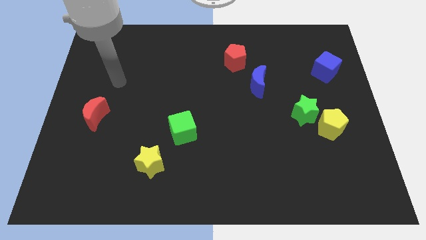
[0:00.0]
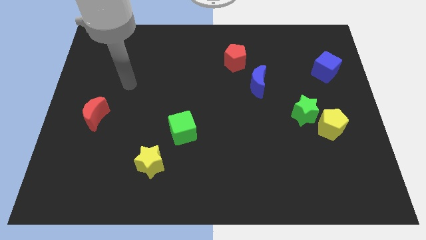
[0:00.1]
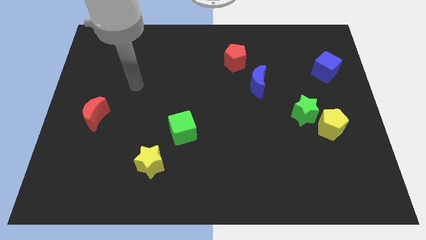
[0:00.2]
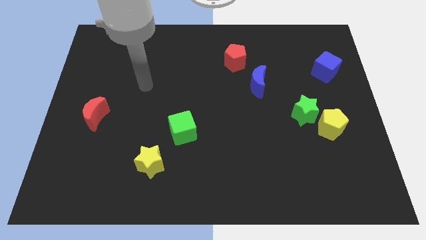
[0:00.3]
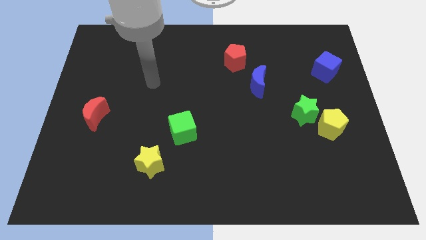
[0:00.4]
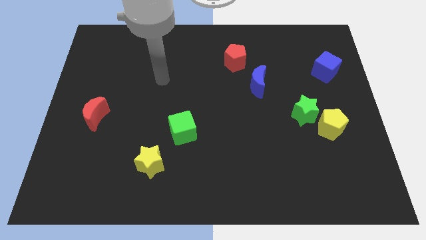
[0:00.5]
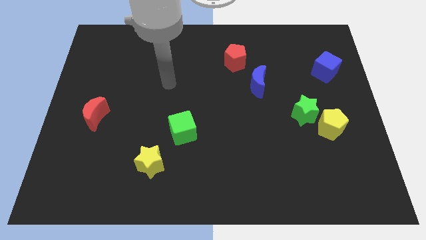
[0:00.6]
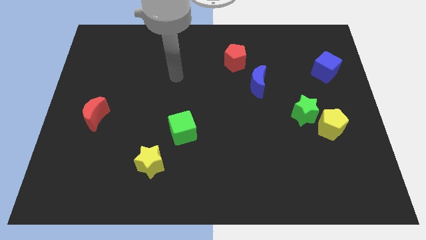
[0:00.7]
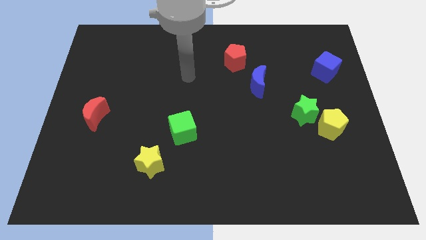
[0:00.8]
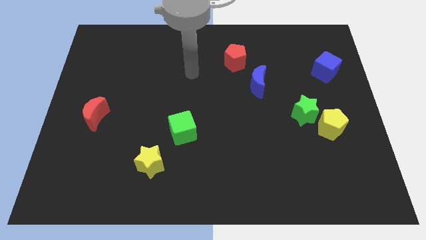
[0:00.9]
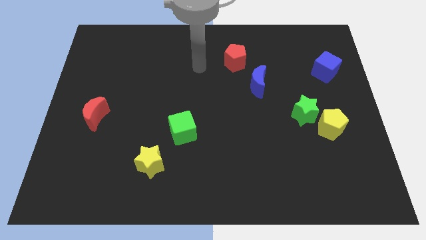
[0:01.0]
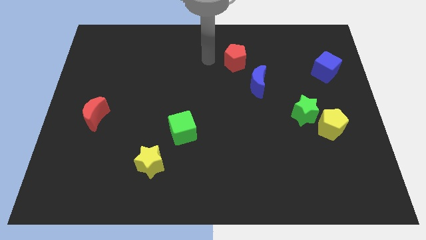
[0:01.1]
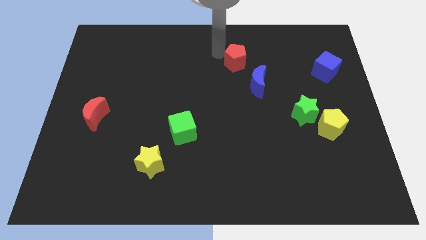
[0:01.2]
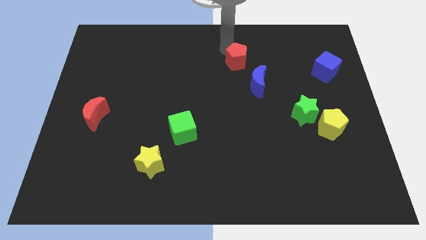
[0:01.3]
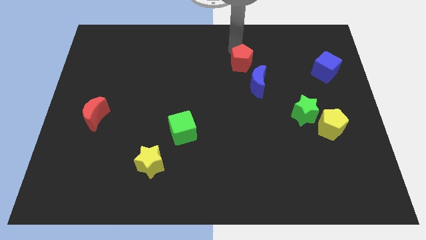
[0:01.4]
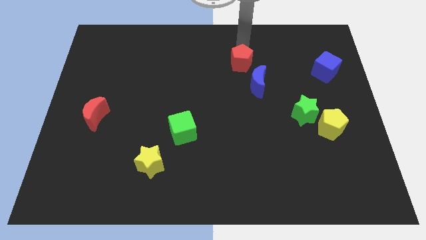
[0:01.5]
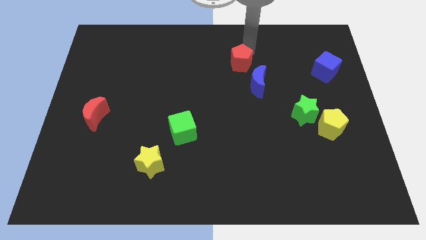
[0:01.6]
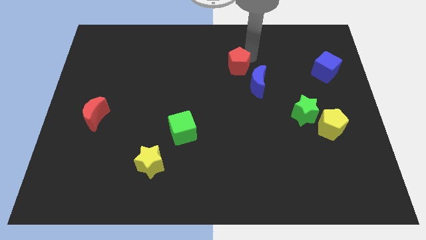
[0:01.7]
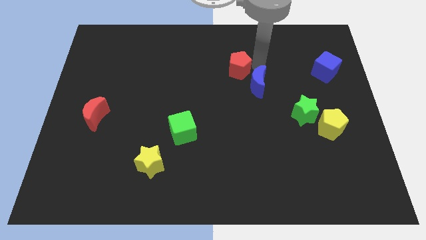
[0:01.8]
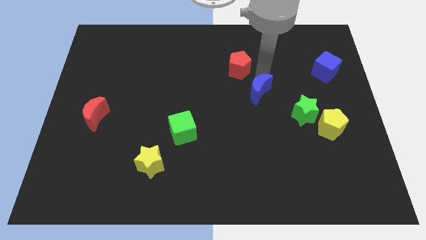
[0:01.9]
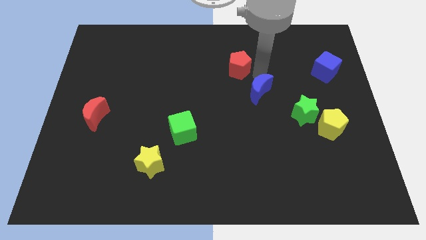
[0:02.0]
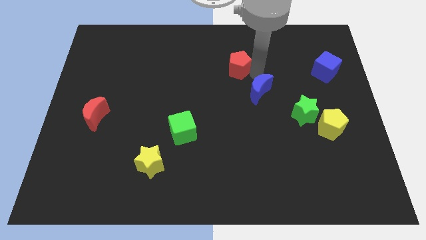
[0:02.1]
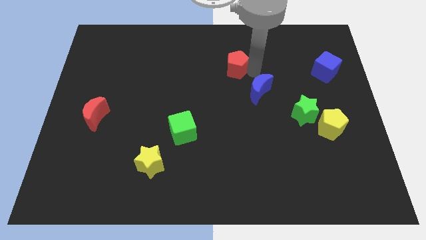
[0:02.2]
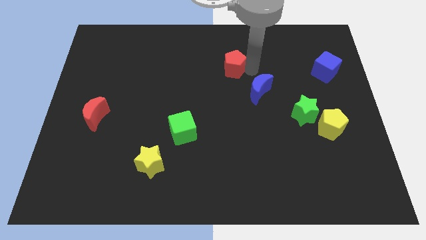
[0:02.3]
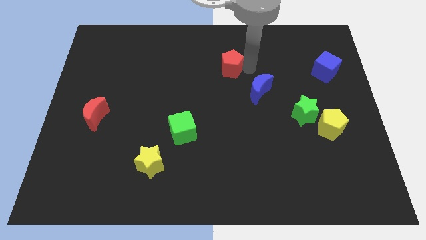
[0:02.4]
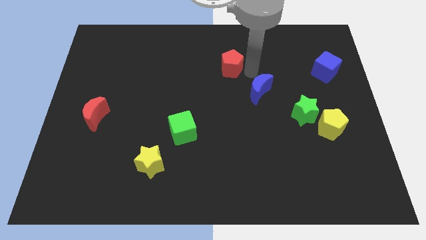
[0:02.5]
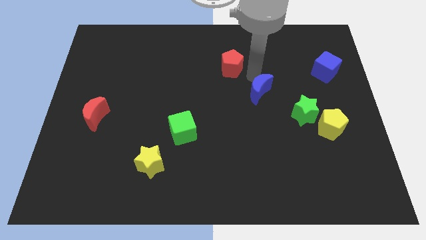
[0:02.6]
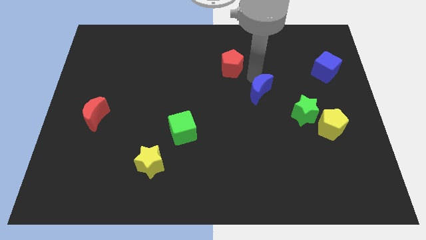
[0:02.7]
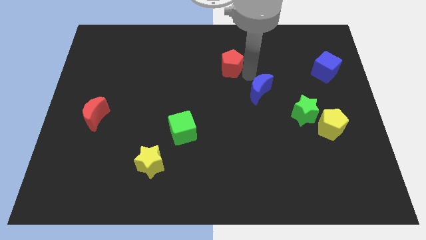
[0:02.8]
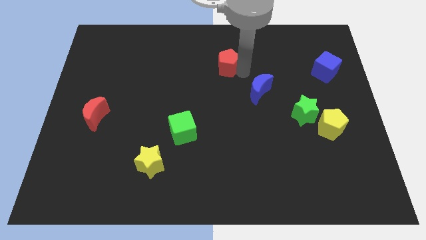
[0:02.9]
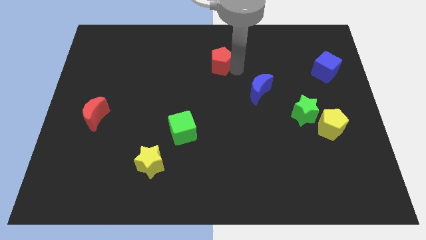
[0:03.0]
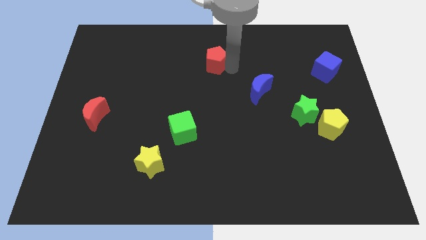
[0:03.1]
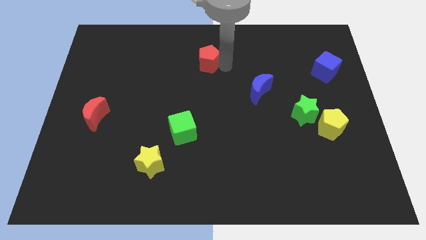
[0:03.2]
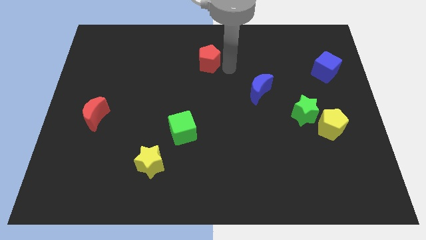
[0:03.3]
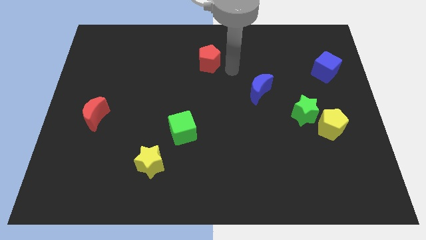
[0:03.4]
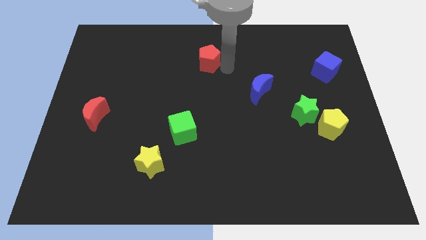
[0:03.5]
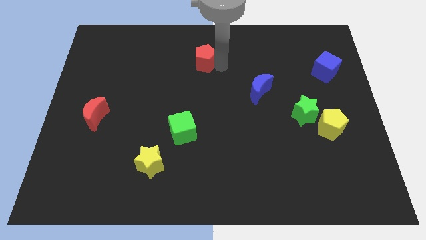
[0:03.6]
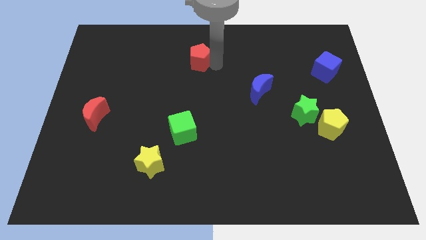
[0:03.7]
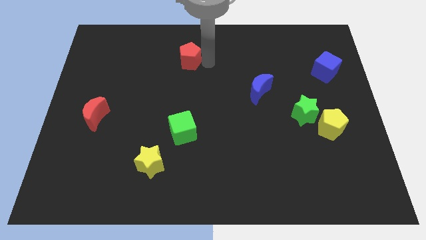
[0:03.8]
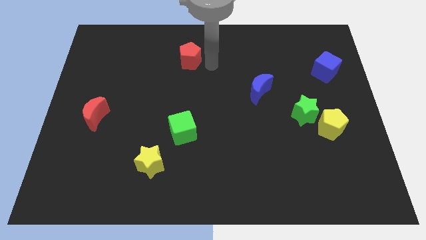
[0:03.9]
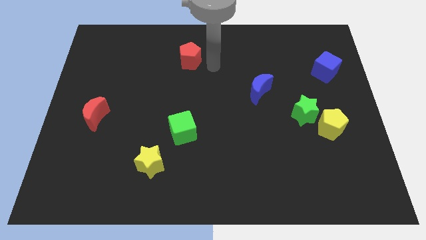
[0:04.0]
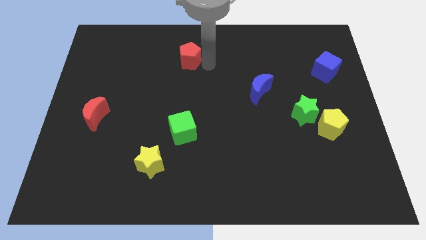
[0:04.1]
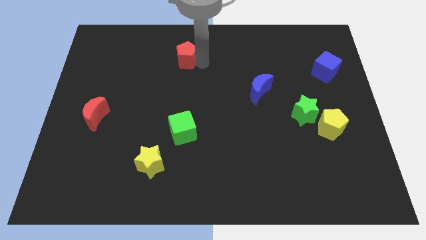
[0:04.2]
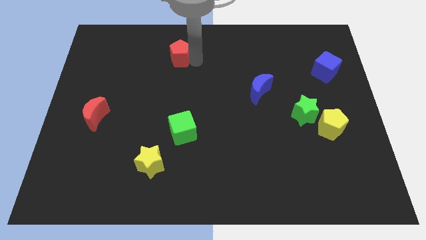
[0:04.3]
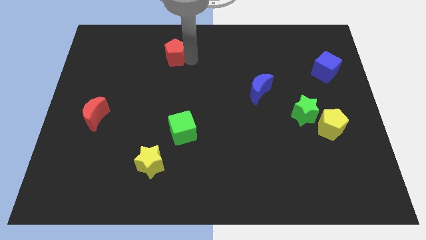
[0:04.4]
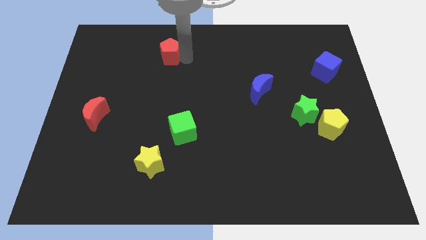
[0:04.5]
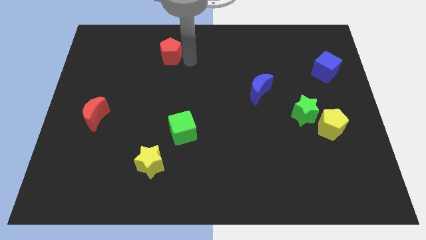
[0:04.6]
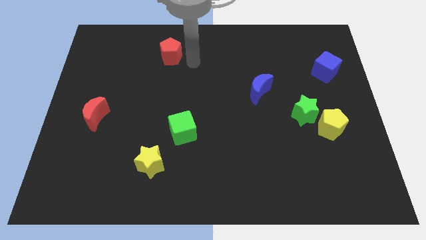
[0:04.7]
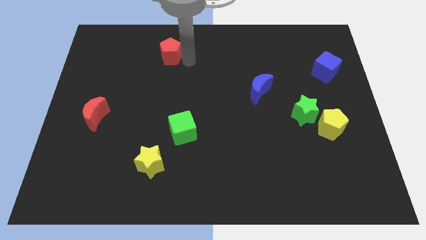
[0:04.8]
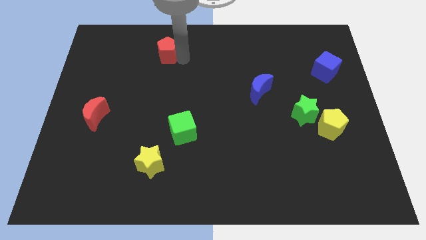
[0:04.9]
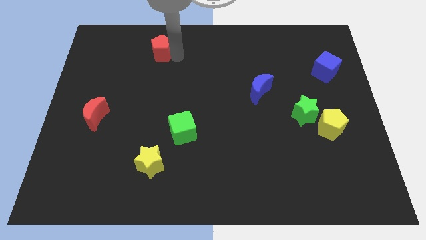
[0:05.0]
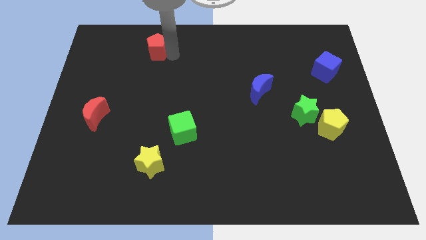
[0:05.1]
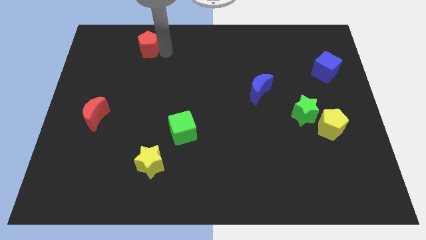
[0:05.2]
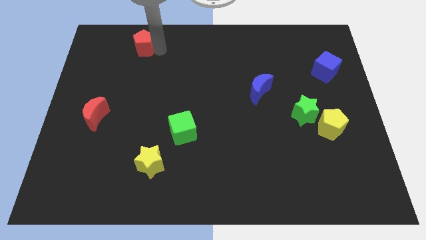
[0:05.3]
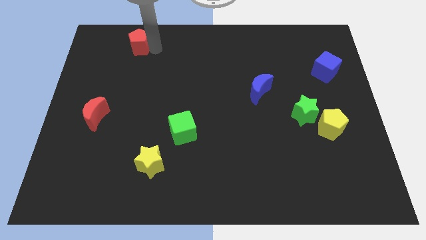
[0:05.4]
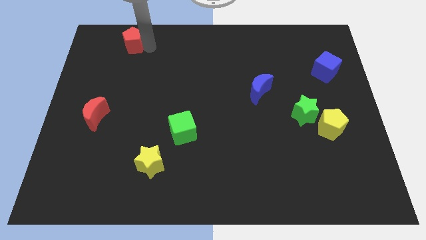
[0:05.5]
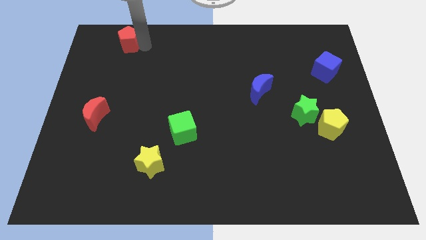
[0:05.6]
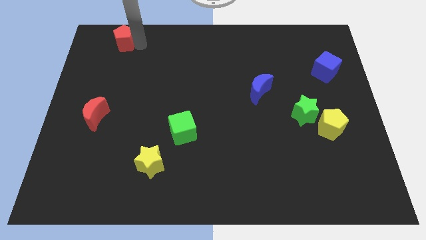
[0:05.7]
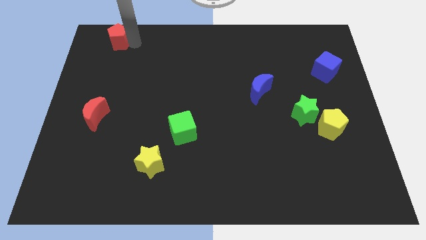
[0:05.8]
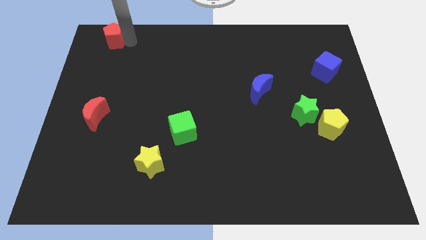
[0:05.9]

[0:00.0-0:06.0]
move the red pentagon to the top left of the board
